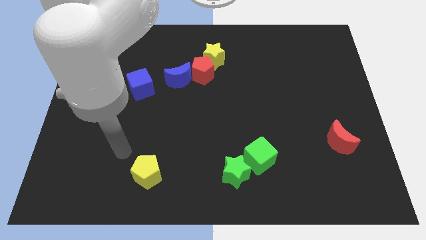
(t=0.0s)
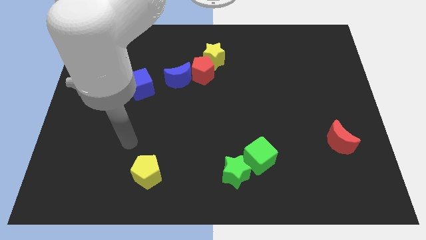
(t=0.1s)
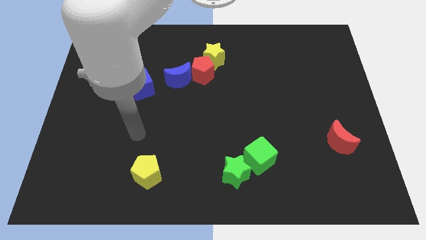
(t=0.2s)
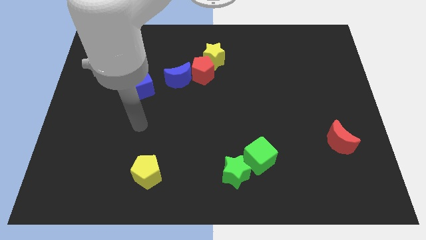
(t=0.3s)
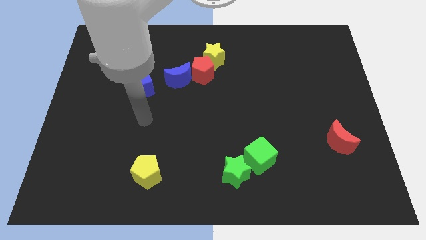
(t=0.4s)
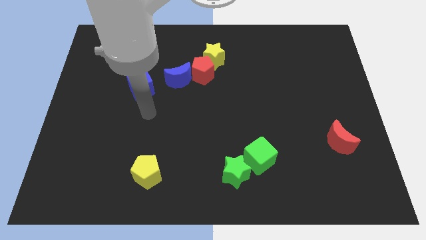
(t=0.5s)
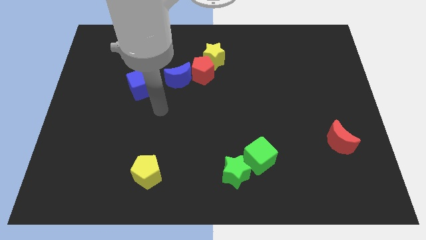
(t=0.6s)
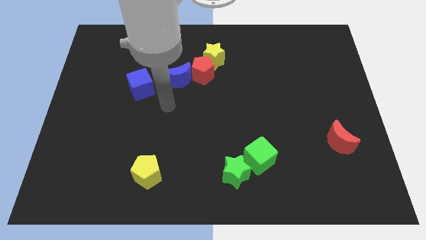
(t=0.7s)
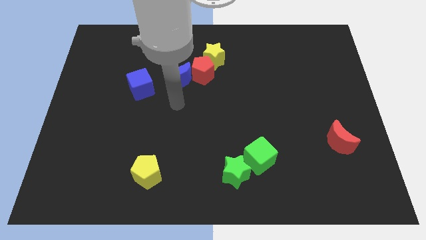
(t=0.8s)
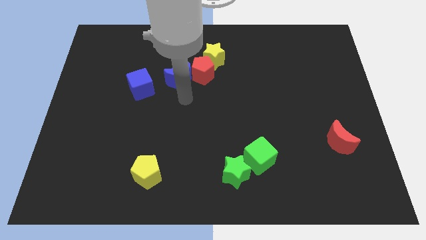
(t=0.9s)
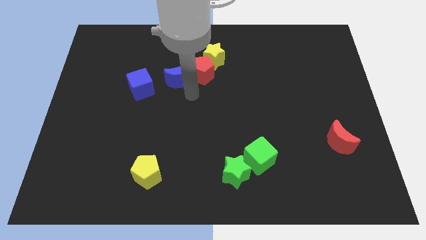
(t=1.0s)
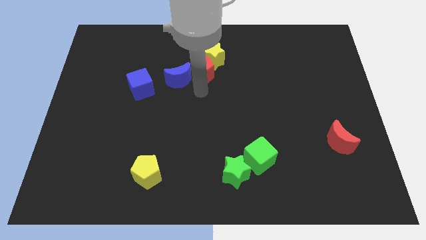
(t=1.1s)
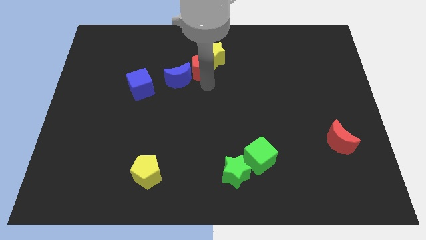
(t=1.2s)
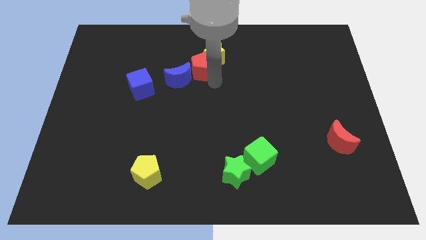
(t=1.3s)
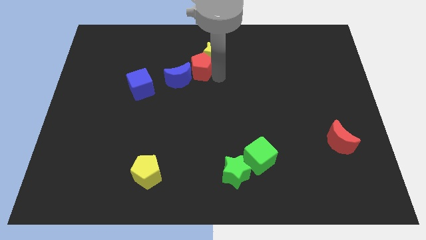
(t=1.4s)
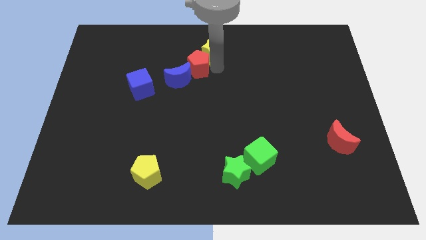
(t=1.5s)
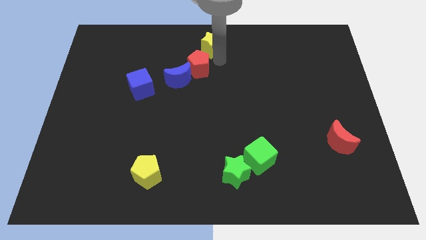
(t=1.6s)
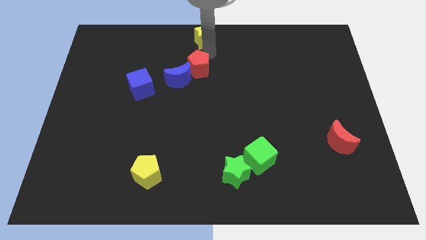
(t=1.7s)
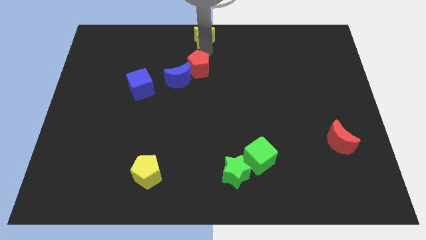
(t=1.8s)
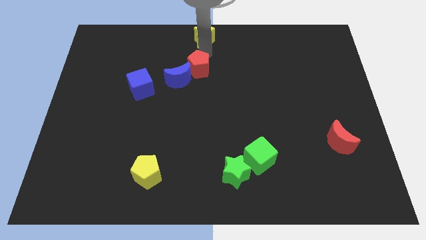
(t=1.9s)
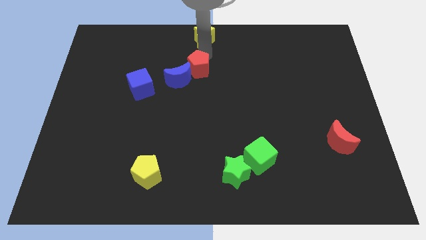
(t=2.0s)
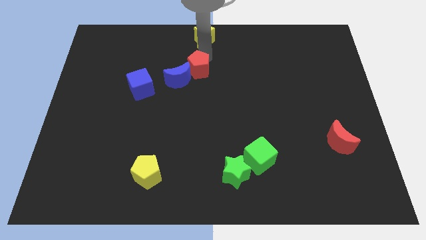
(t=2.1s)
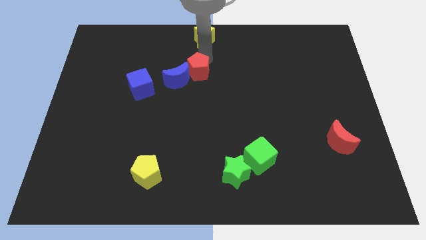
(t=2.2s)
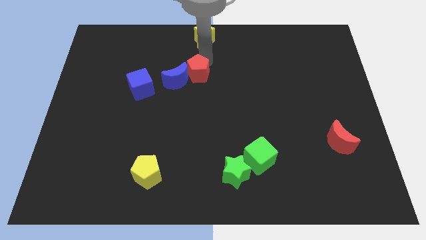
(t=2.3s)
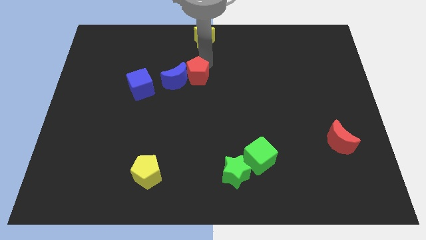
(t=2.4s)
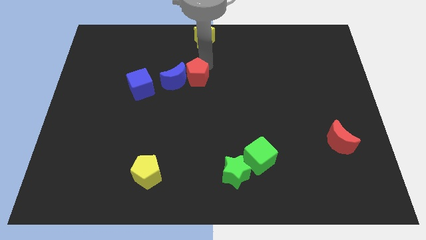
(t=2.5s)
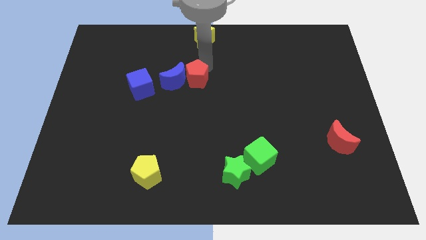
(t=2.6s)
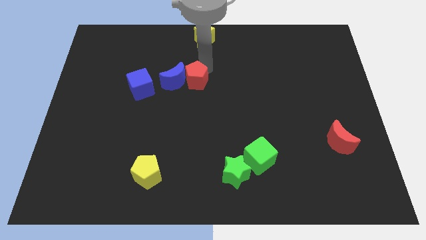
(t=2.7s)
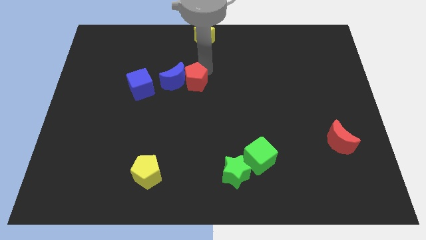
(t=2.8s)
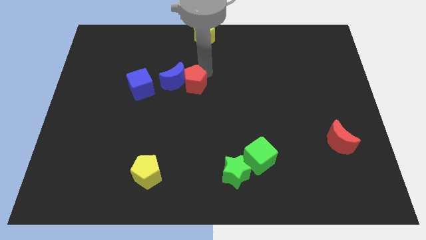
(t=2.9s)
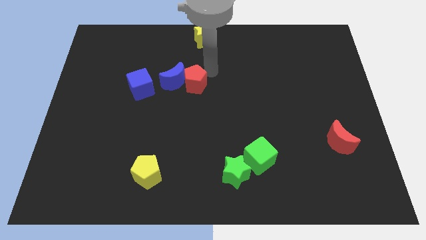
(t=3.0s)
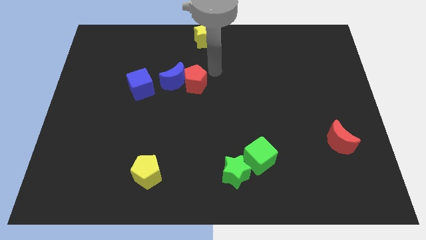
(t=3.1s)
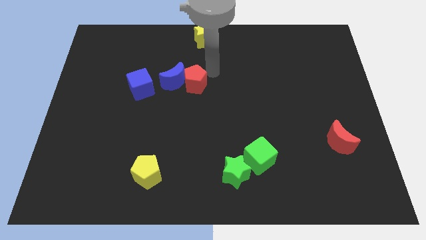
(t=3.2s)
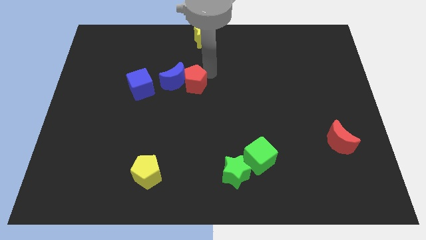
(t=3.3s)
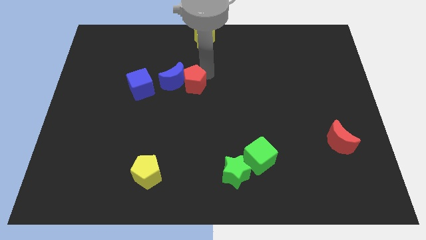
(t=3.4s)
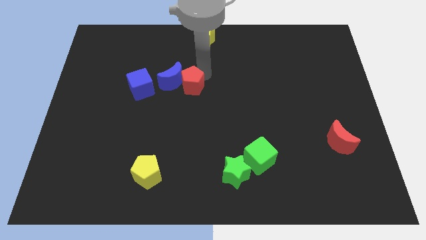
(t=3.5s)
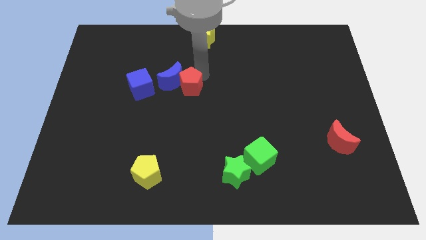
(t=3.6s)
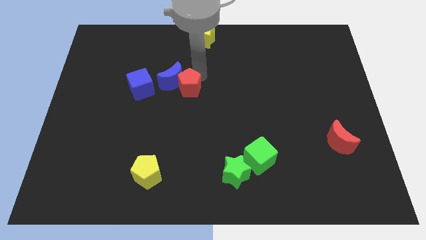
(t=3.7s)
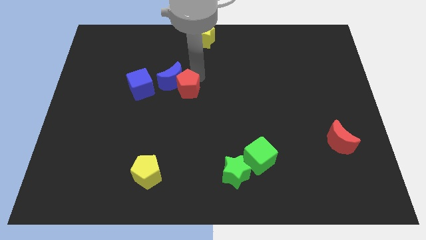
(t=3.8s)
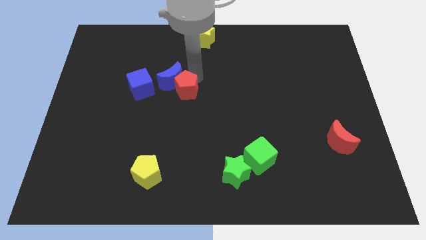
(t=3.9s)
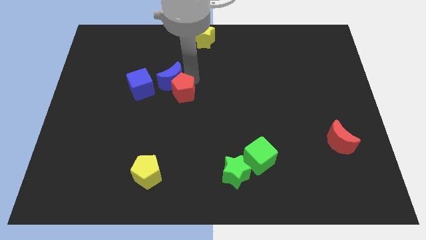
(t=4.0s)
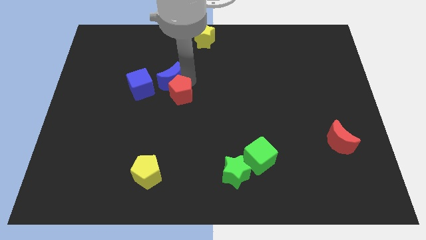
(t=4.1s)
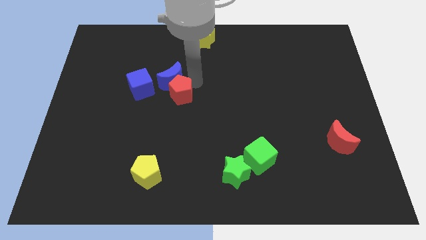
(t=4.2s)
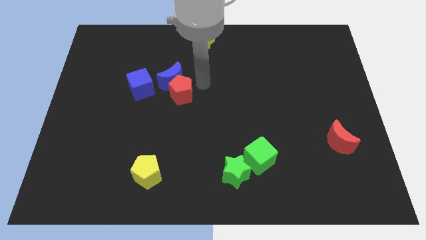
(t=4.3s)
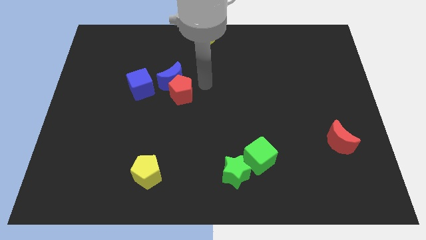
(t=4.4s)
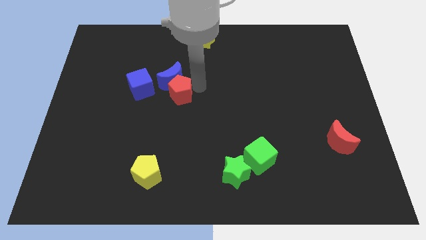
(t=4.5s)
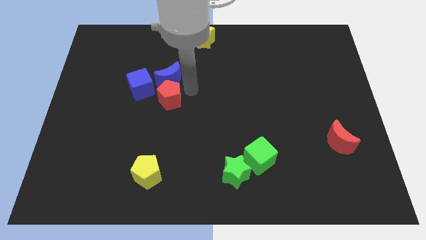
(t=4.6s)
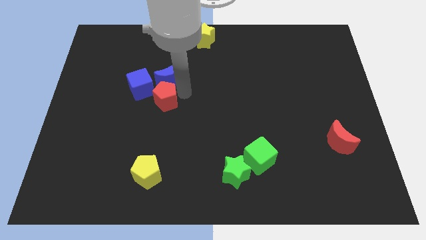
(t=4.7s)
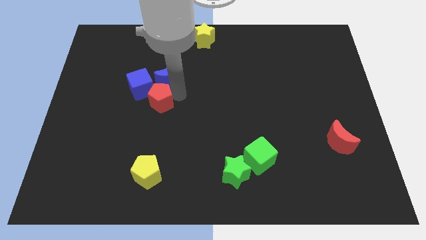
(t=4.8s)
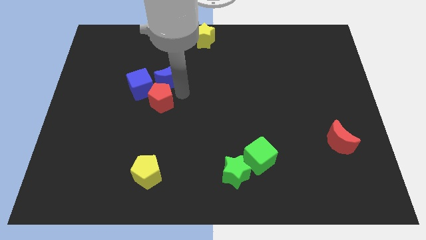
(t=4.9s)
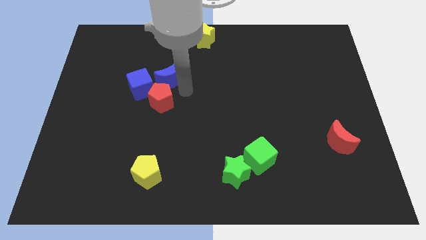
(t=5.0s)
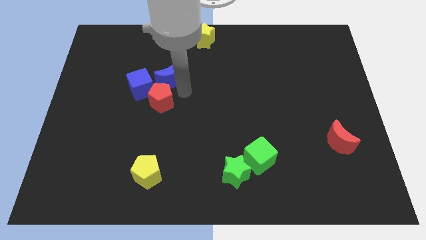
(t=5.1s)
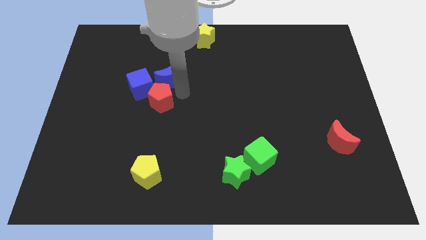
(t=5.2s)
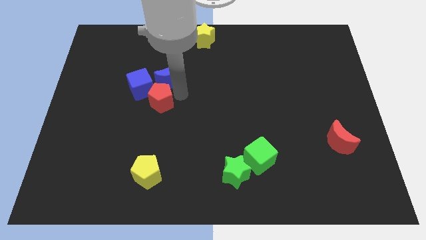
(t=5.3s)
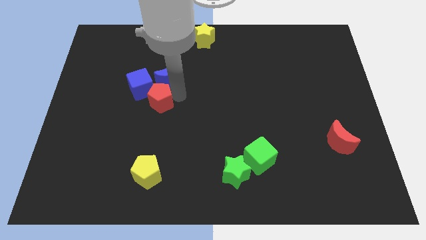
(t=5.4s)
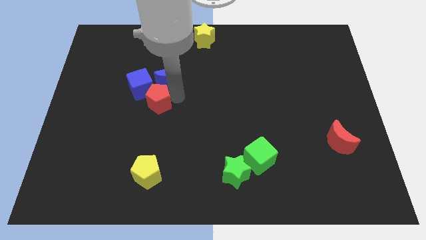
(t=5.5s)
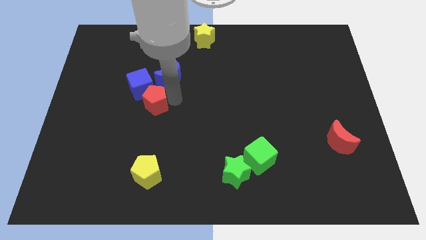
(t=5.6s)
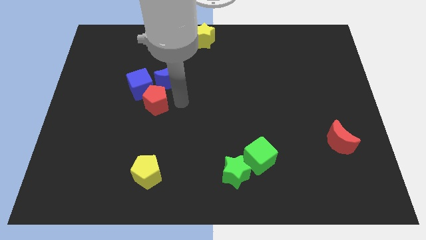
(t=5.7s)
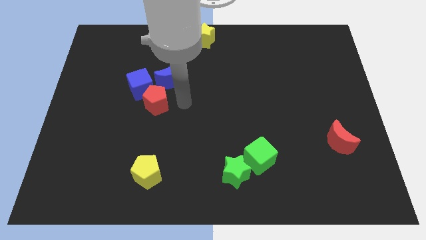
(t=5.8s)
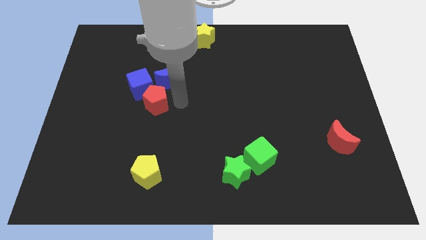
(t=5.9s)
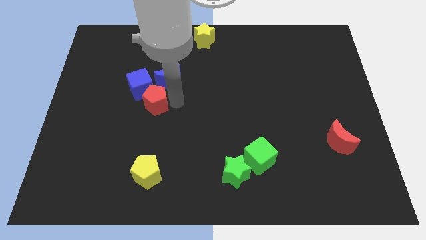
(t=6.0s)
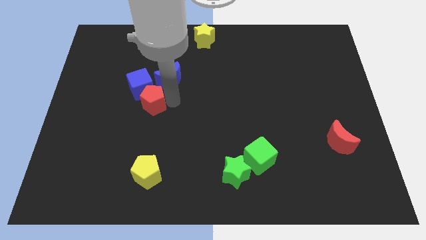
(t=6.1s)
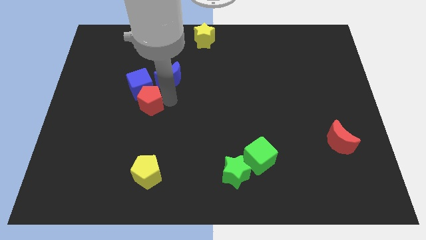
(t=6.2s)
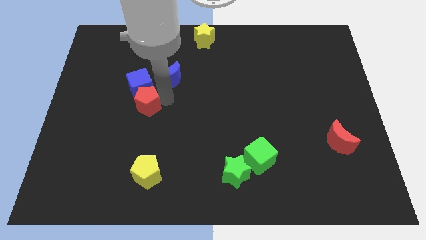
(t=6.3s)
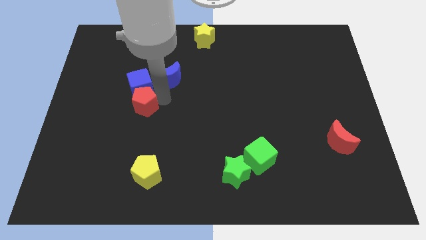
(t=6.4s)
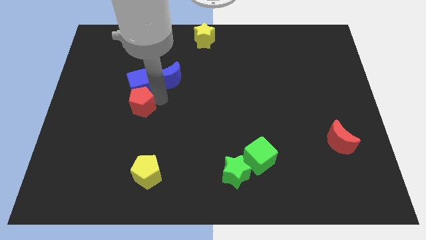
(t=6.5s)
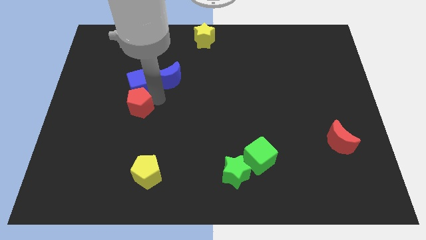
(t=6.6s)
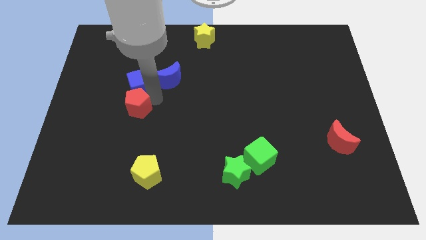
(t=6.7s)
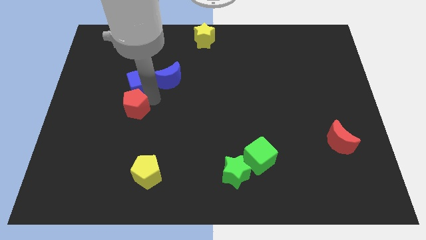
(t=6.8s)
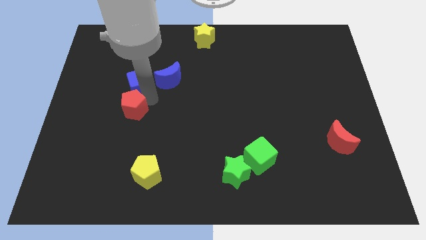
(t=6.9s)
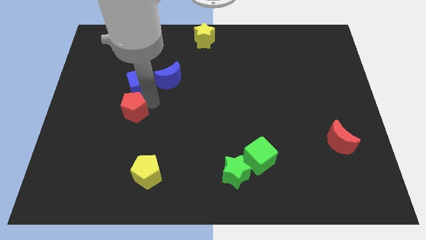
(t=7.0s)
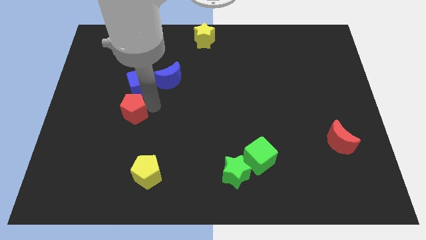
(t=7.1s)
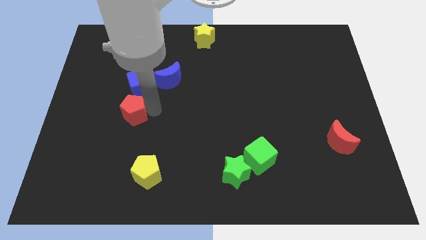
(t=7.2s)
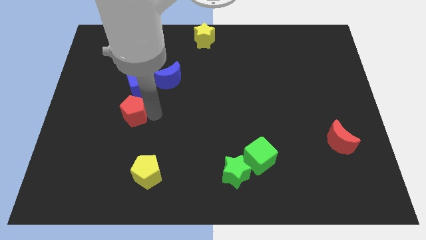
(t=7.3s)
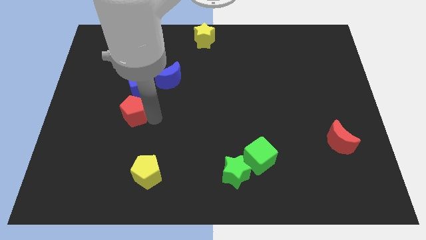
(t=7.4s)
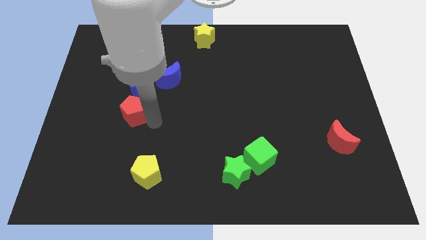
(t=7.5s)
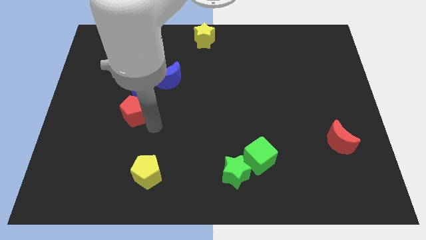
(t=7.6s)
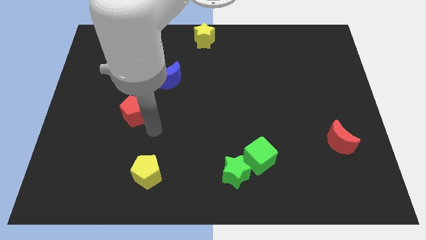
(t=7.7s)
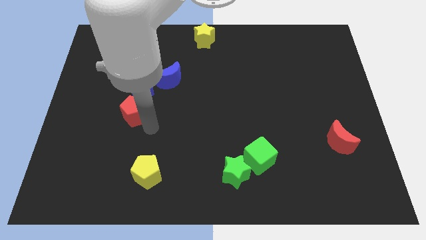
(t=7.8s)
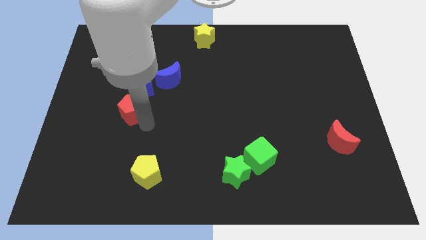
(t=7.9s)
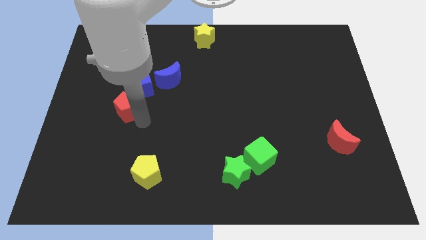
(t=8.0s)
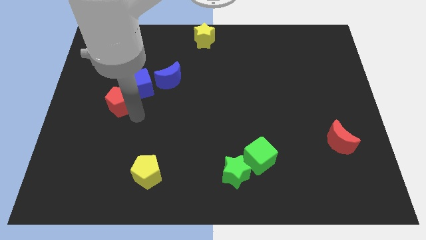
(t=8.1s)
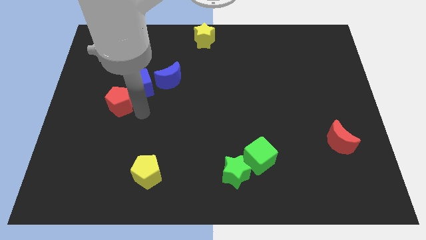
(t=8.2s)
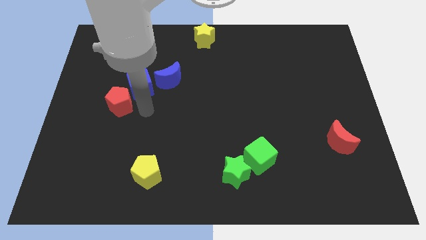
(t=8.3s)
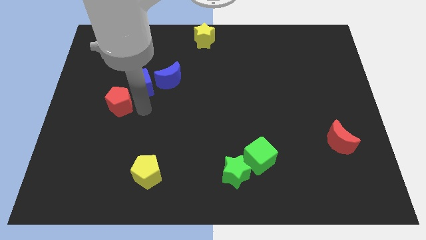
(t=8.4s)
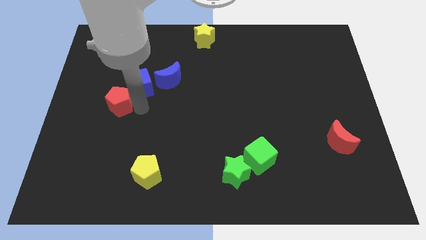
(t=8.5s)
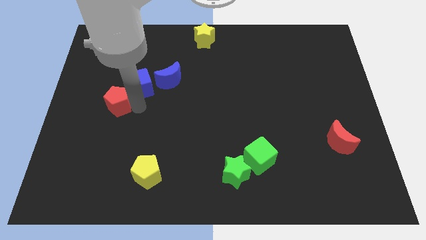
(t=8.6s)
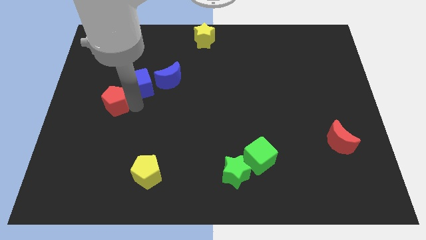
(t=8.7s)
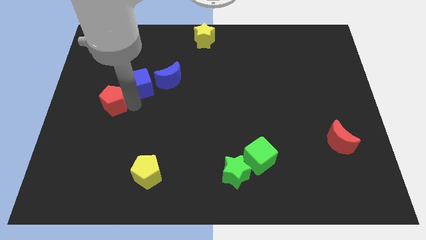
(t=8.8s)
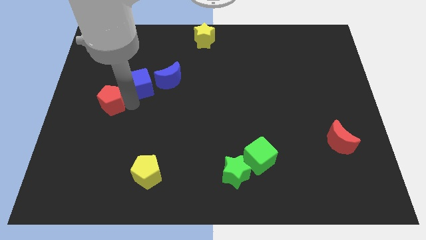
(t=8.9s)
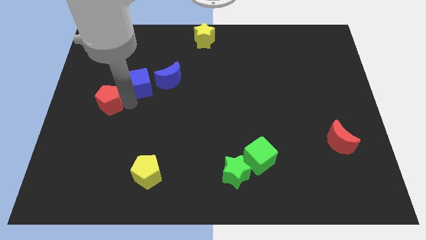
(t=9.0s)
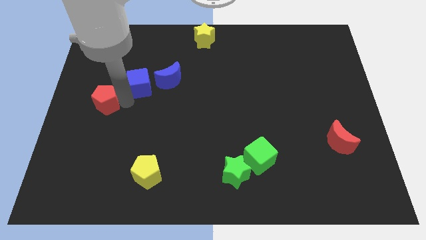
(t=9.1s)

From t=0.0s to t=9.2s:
slide the red pentagon to the left side of the board
